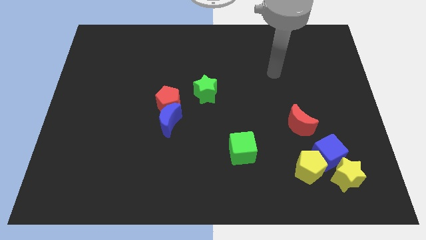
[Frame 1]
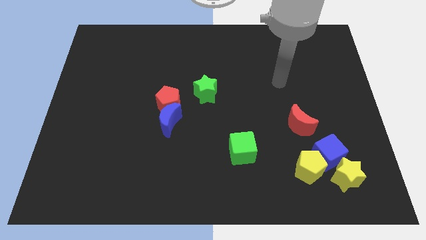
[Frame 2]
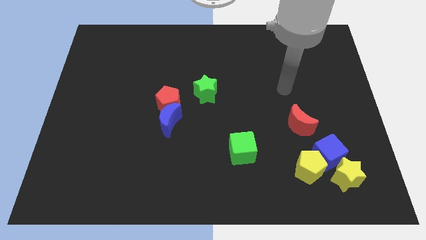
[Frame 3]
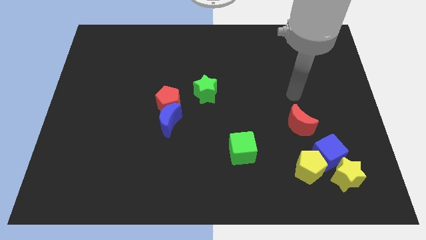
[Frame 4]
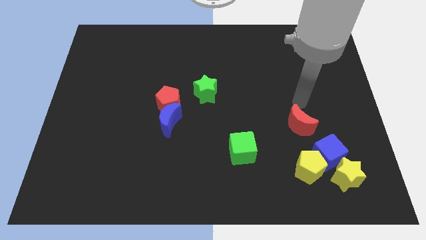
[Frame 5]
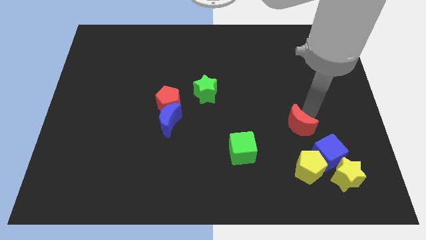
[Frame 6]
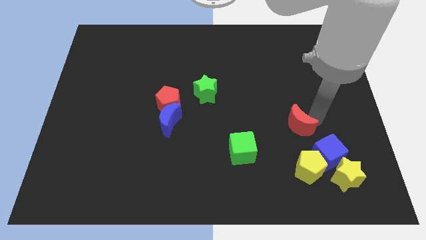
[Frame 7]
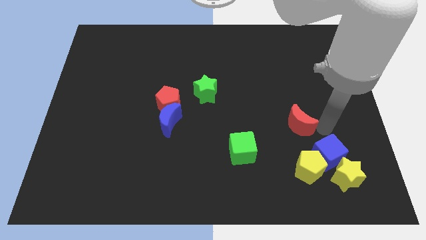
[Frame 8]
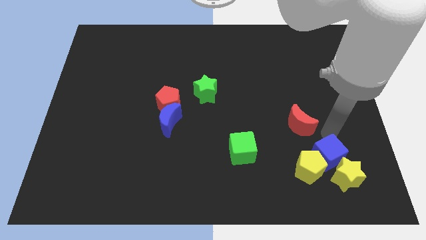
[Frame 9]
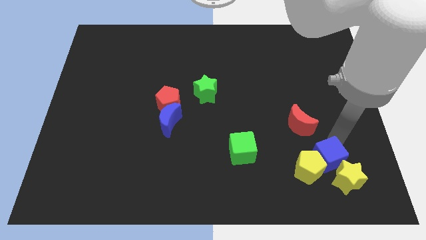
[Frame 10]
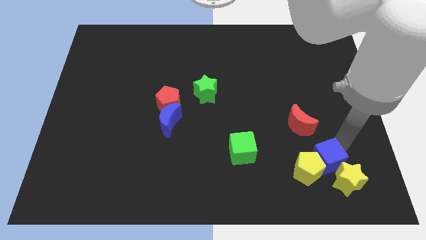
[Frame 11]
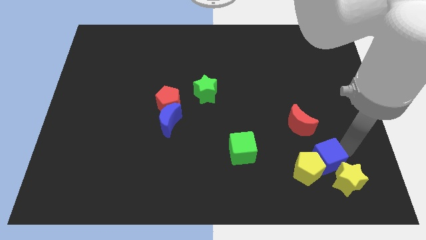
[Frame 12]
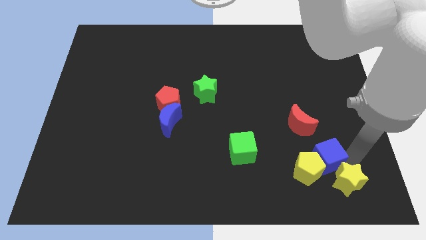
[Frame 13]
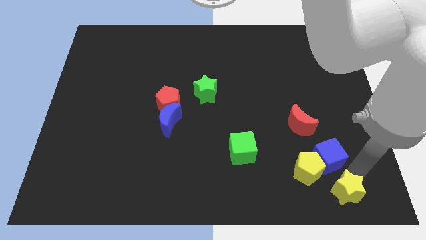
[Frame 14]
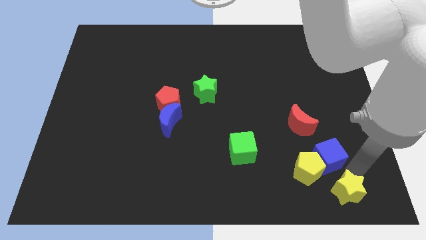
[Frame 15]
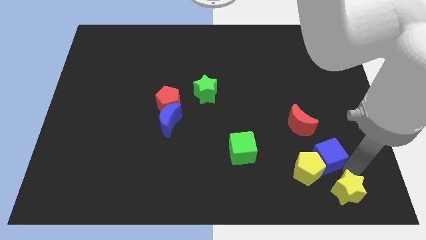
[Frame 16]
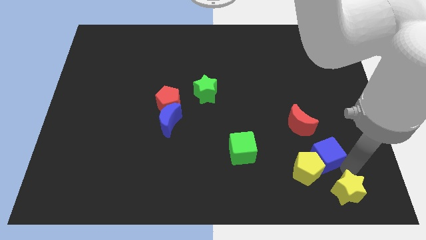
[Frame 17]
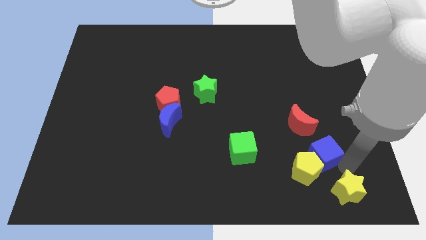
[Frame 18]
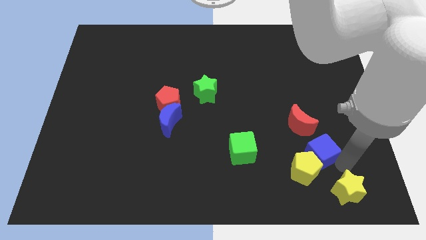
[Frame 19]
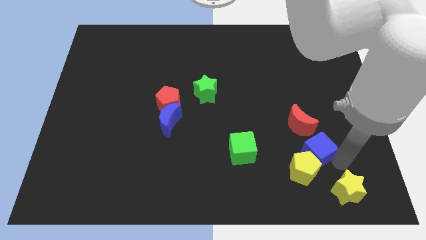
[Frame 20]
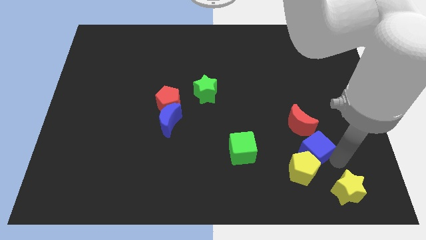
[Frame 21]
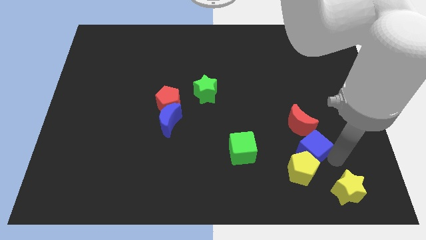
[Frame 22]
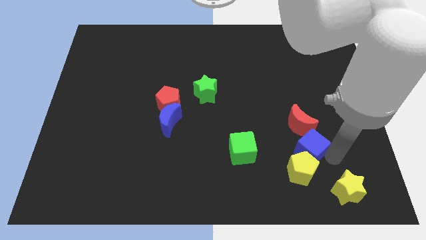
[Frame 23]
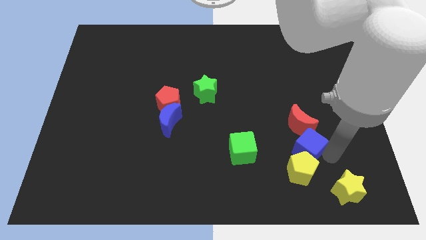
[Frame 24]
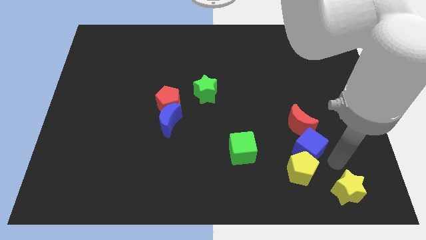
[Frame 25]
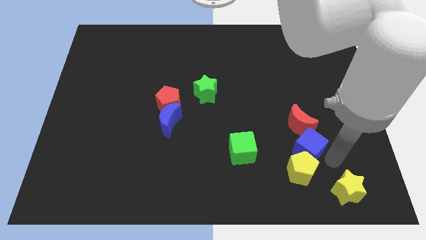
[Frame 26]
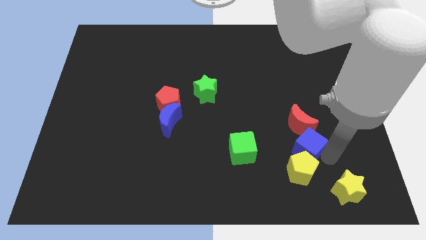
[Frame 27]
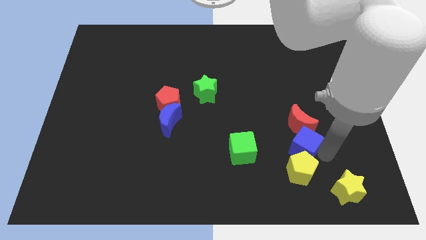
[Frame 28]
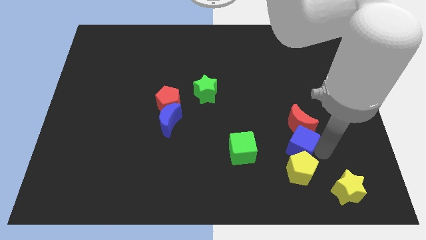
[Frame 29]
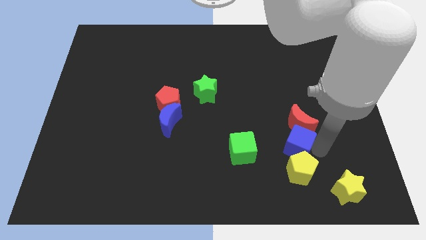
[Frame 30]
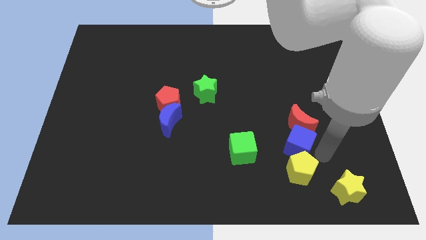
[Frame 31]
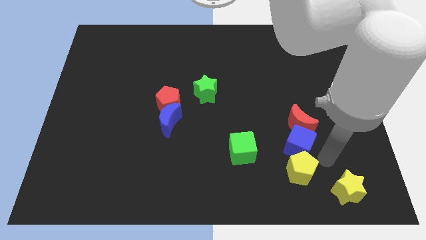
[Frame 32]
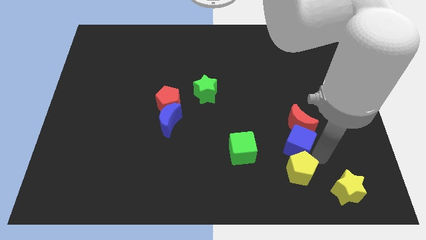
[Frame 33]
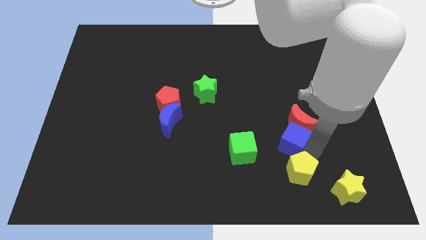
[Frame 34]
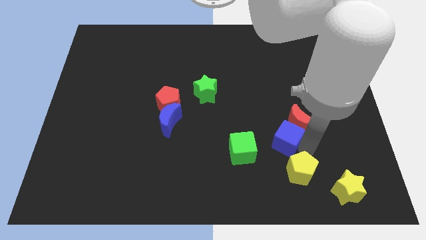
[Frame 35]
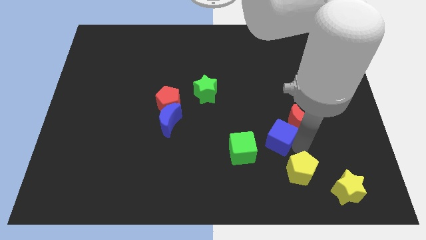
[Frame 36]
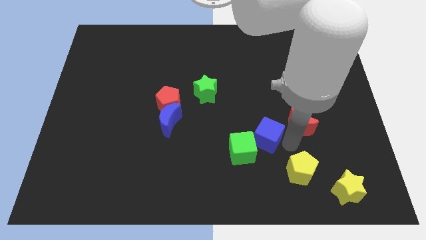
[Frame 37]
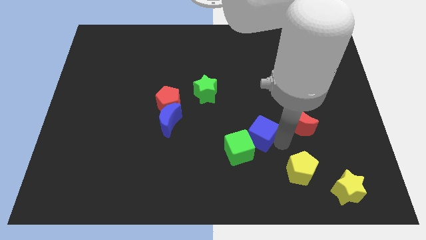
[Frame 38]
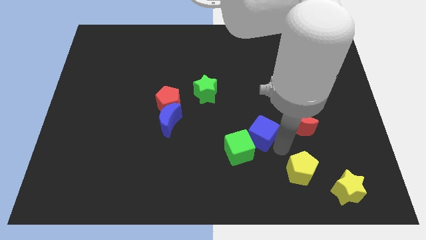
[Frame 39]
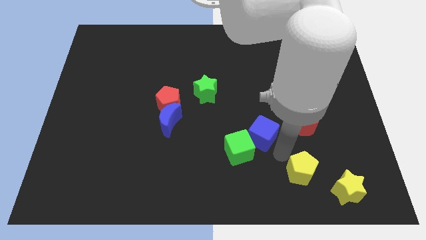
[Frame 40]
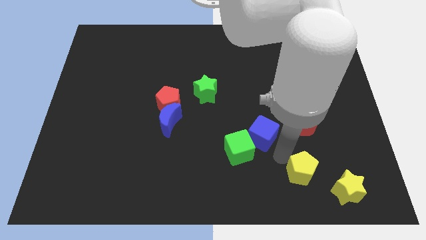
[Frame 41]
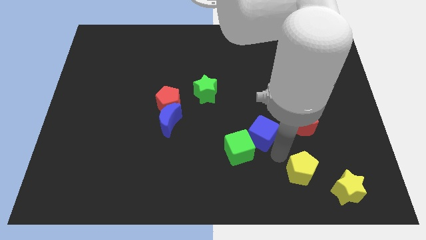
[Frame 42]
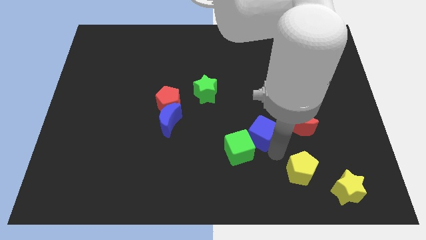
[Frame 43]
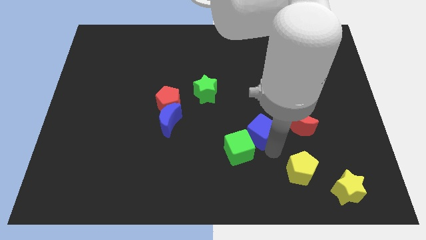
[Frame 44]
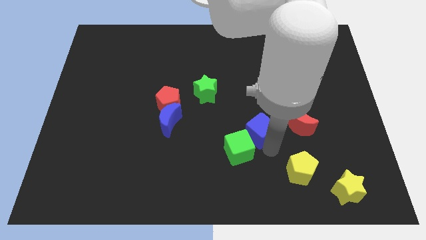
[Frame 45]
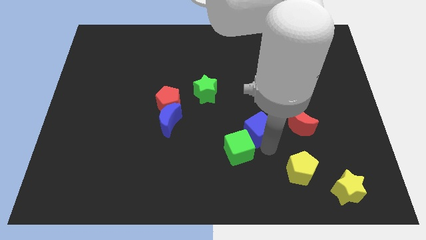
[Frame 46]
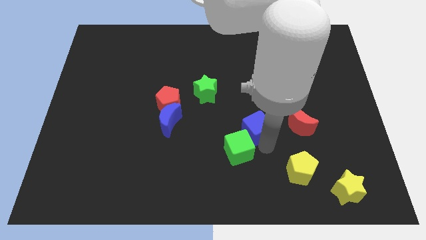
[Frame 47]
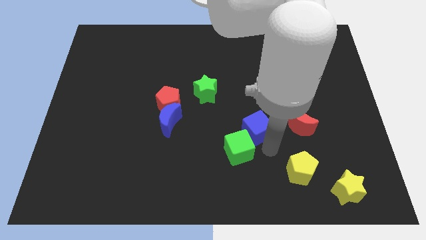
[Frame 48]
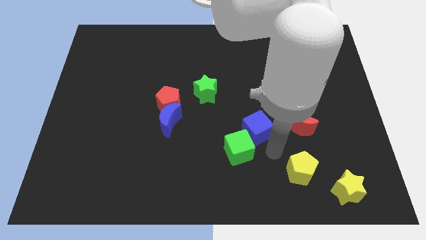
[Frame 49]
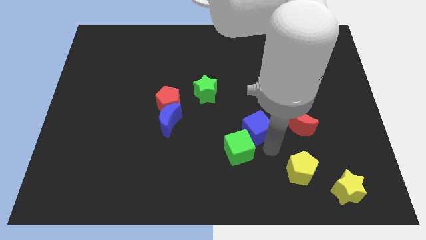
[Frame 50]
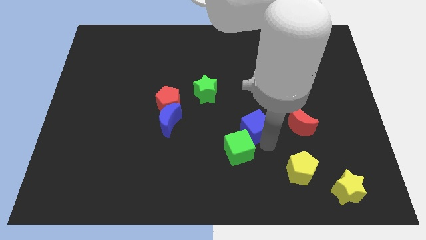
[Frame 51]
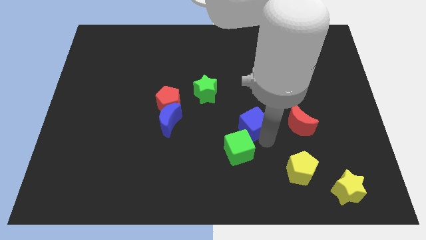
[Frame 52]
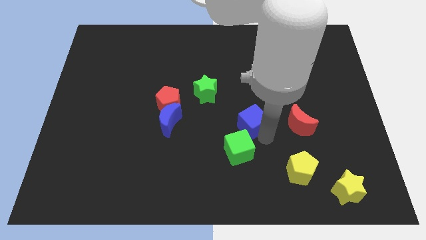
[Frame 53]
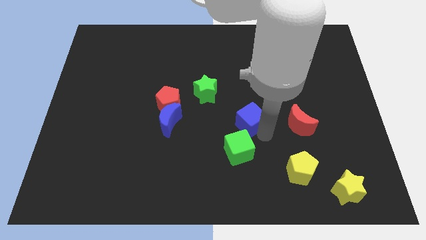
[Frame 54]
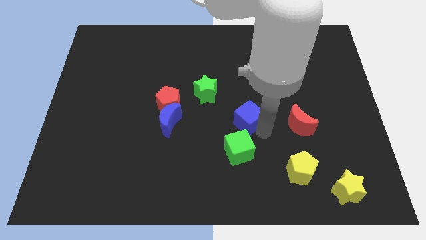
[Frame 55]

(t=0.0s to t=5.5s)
push the blue cube diagonally down and to the right of the green star

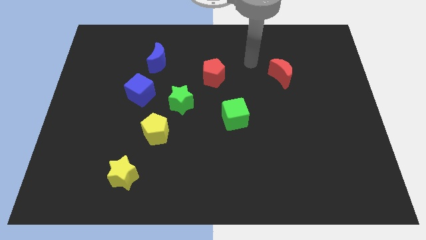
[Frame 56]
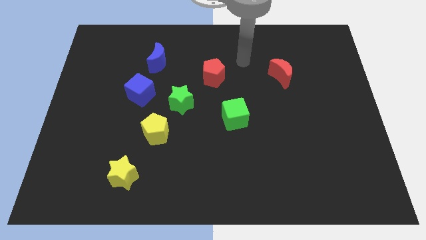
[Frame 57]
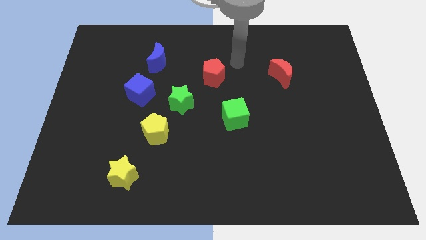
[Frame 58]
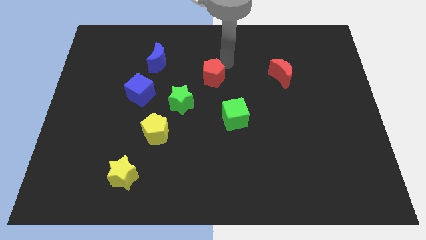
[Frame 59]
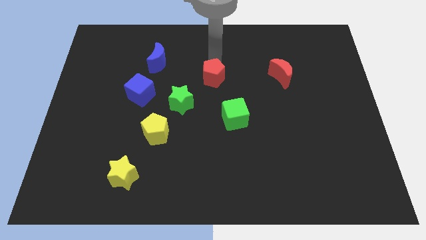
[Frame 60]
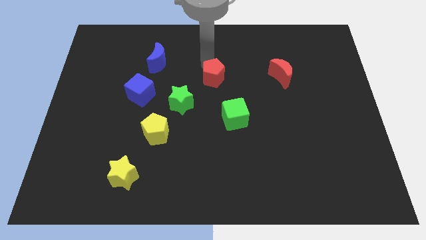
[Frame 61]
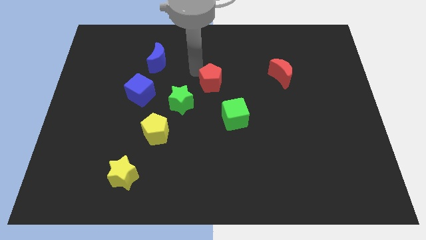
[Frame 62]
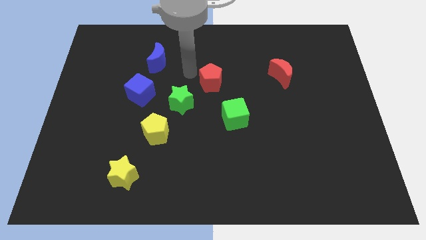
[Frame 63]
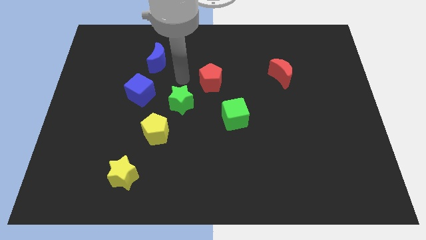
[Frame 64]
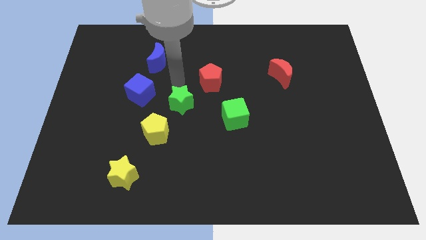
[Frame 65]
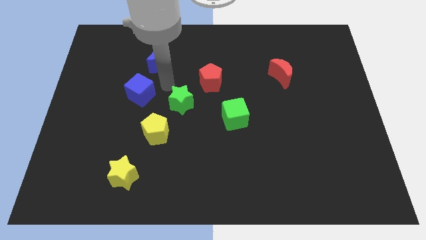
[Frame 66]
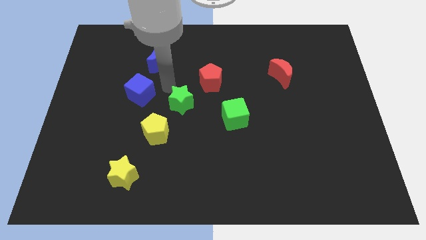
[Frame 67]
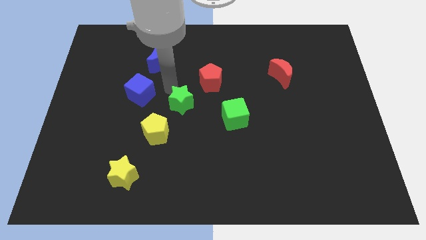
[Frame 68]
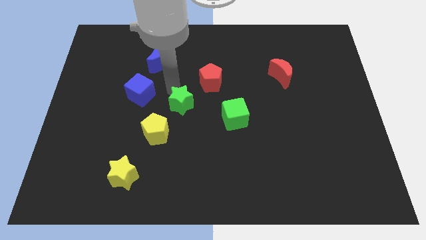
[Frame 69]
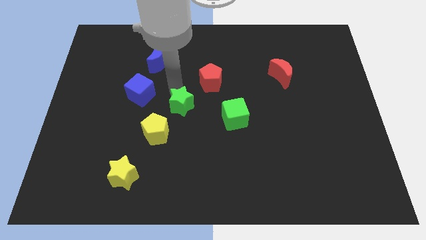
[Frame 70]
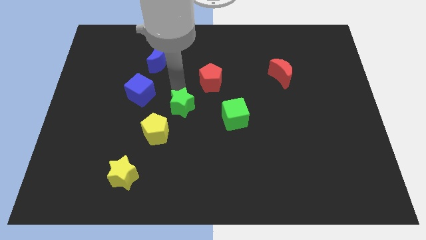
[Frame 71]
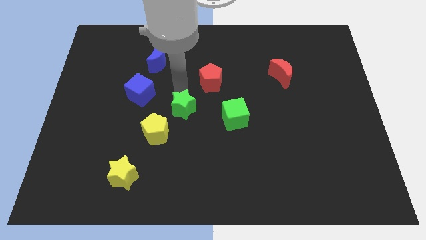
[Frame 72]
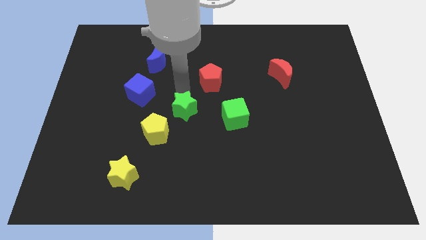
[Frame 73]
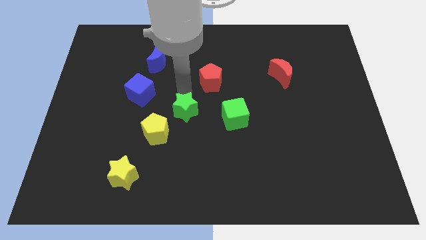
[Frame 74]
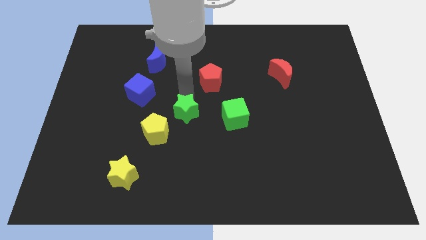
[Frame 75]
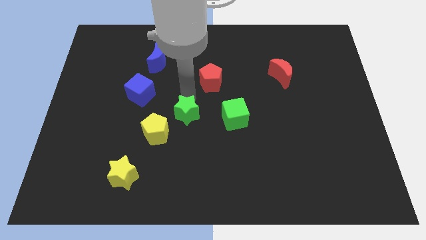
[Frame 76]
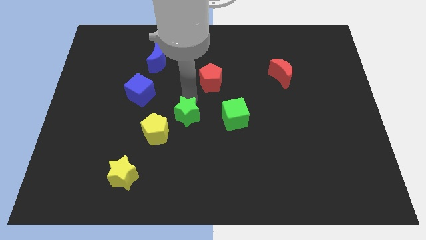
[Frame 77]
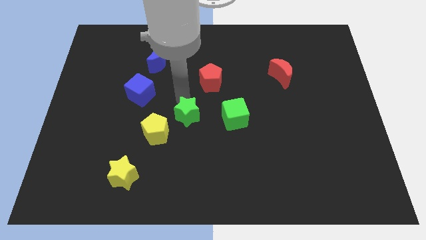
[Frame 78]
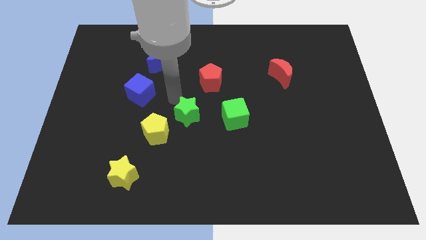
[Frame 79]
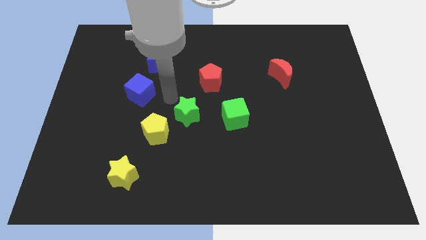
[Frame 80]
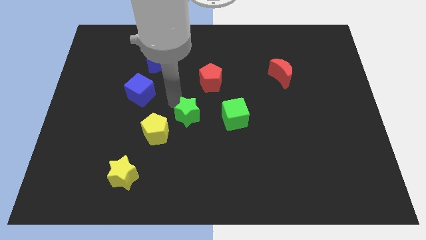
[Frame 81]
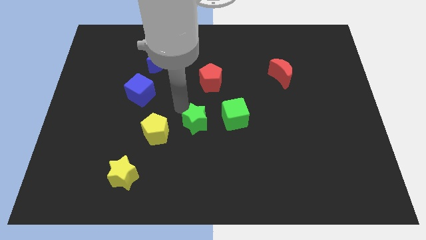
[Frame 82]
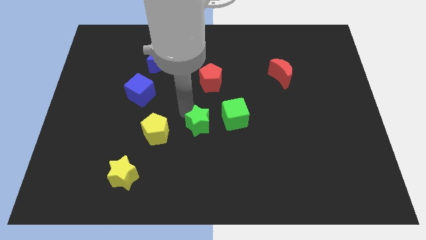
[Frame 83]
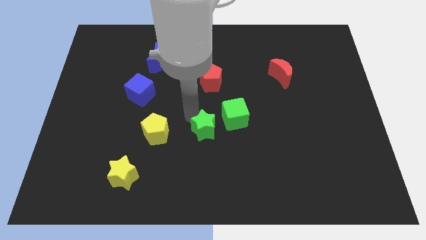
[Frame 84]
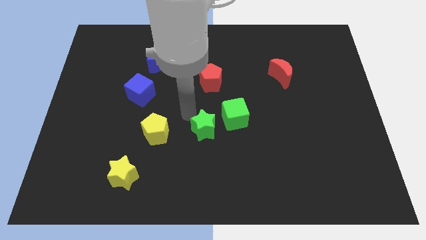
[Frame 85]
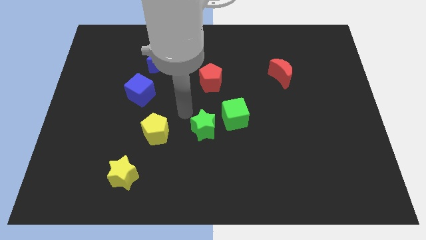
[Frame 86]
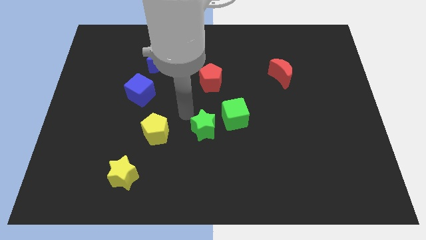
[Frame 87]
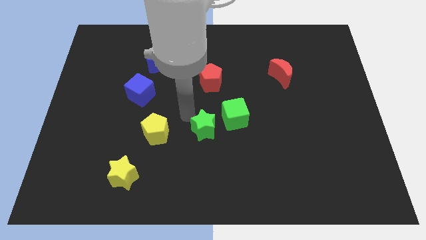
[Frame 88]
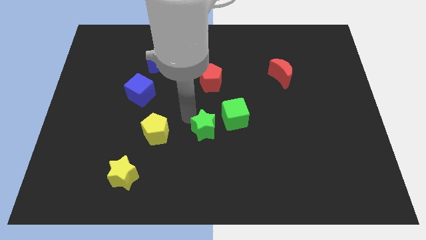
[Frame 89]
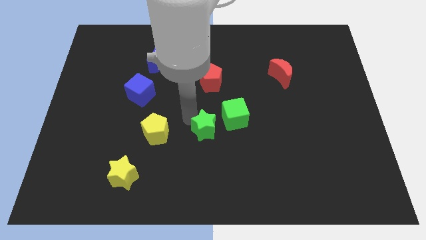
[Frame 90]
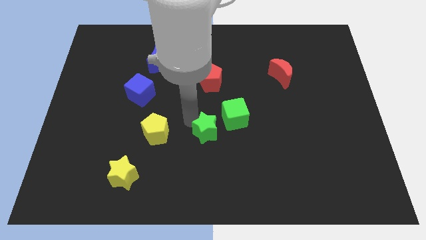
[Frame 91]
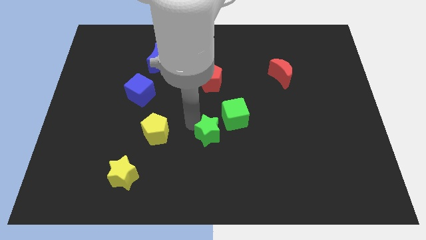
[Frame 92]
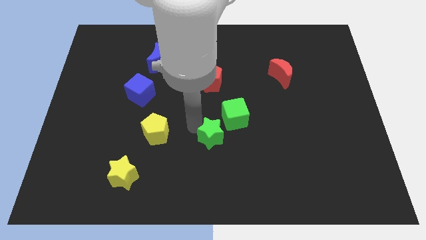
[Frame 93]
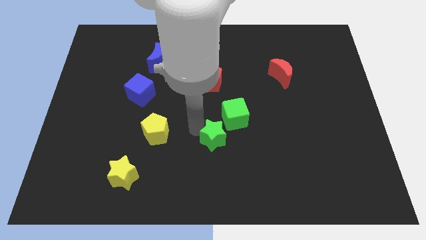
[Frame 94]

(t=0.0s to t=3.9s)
slide the green star to the bottom side of the green cube
